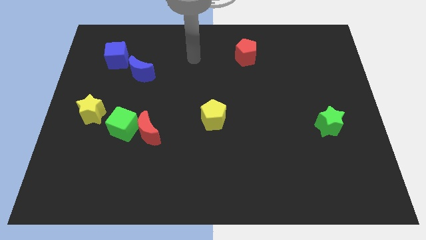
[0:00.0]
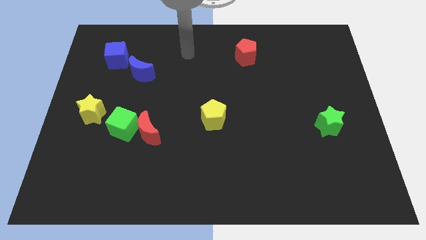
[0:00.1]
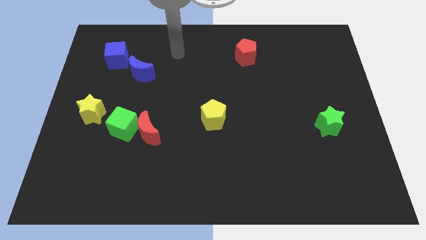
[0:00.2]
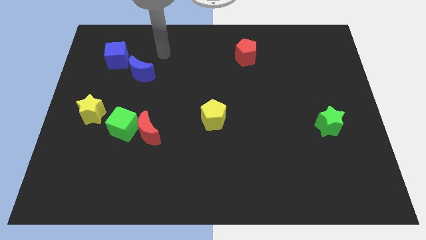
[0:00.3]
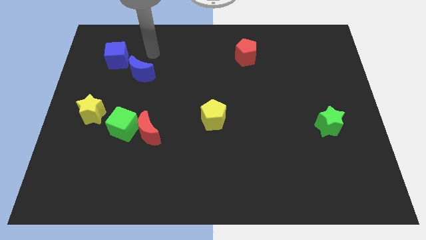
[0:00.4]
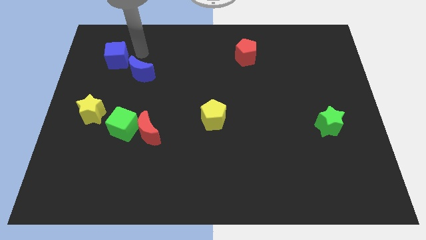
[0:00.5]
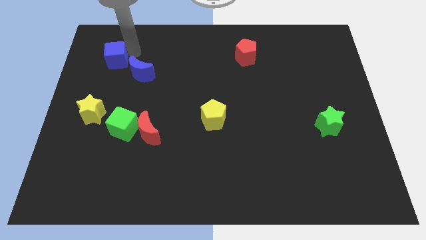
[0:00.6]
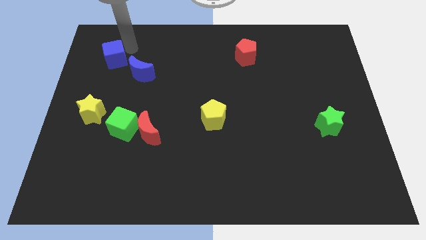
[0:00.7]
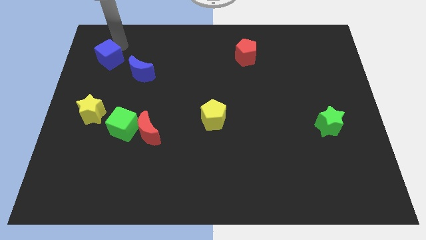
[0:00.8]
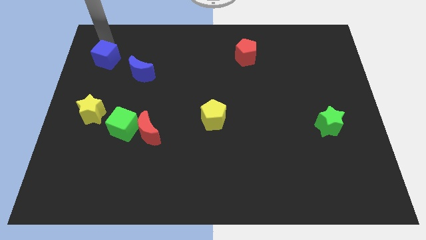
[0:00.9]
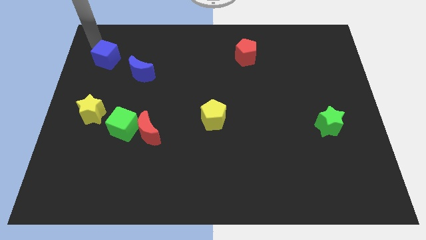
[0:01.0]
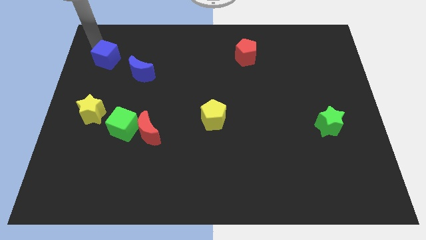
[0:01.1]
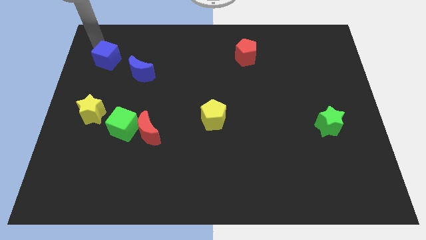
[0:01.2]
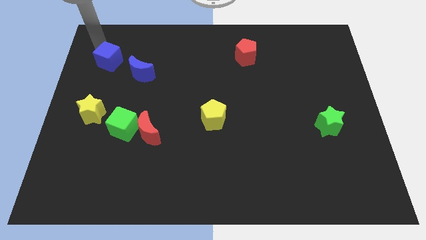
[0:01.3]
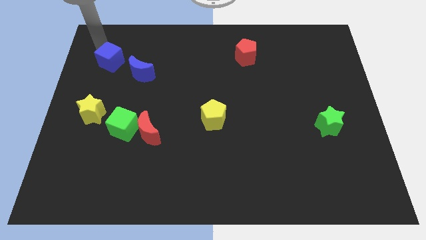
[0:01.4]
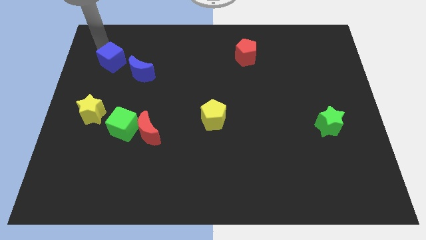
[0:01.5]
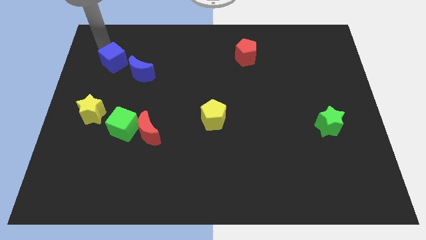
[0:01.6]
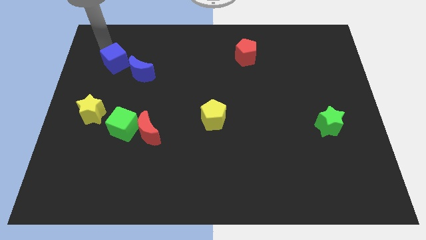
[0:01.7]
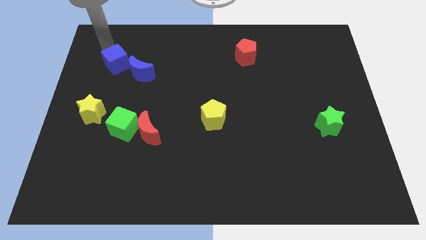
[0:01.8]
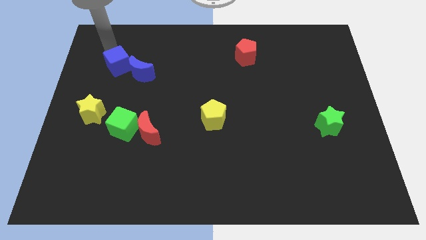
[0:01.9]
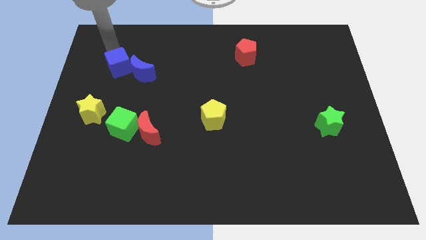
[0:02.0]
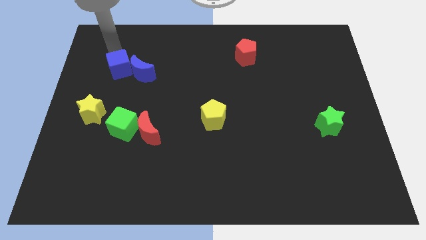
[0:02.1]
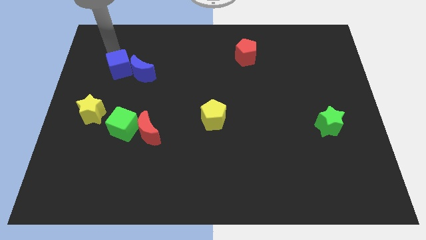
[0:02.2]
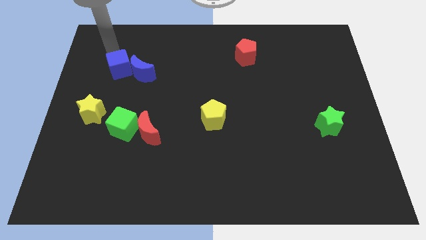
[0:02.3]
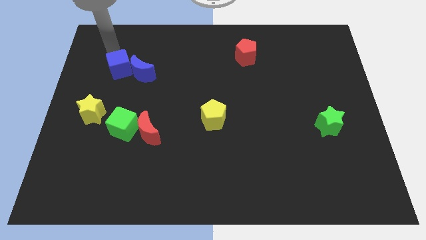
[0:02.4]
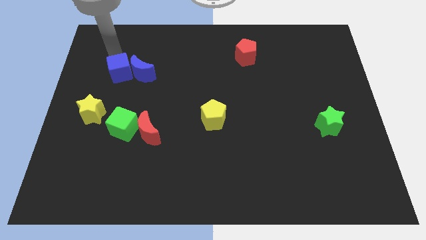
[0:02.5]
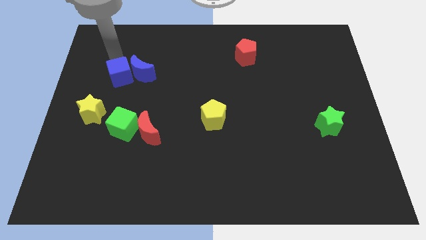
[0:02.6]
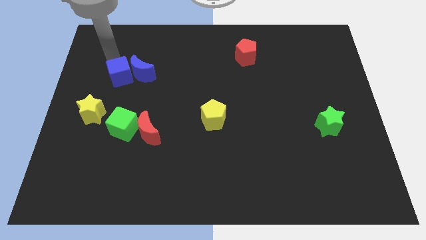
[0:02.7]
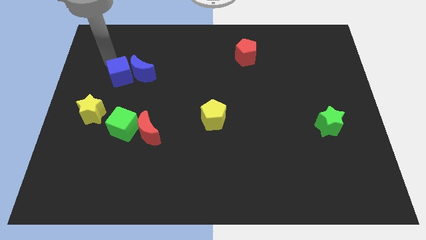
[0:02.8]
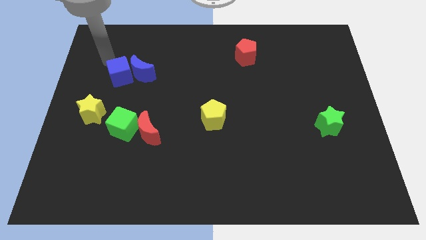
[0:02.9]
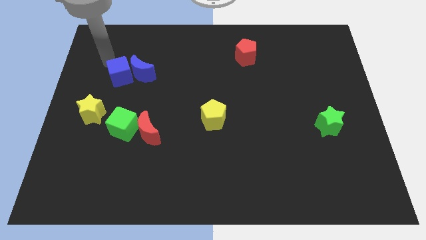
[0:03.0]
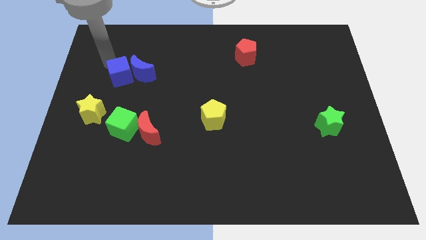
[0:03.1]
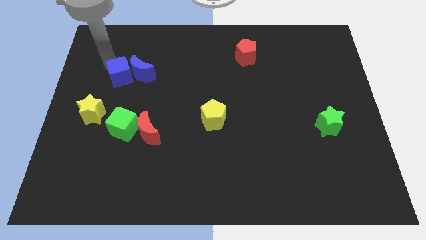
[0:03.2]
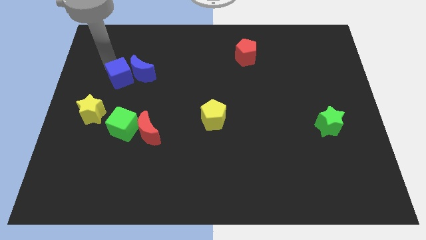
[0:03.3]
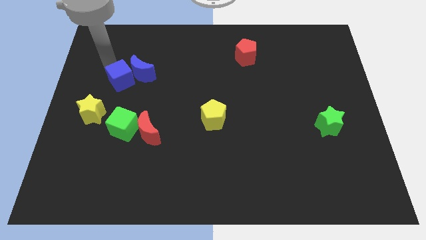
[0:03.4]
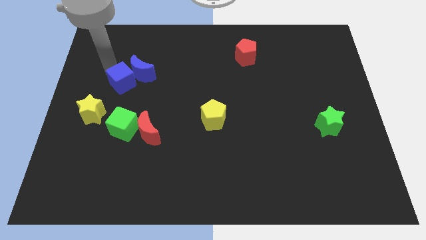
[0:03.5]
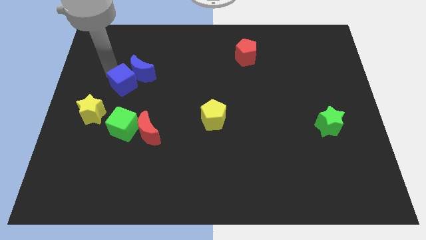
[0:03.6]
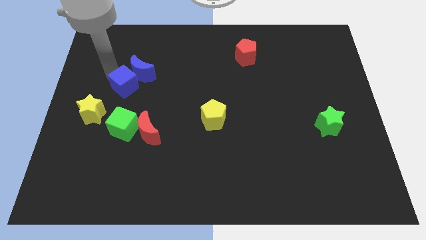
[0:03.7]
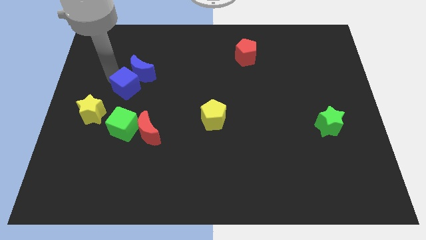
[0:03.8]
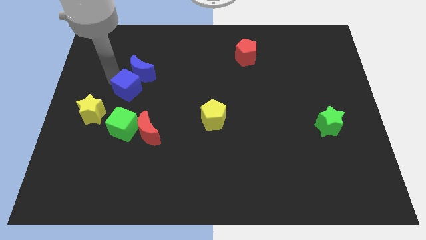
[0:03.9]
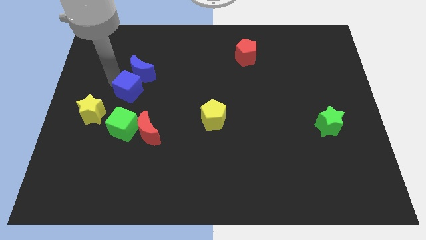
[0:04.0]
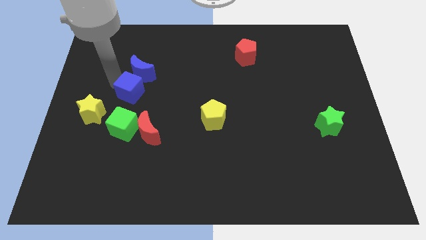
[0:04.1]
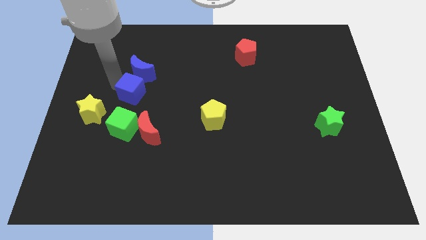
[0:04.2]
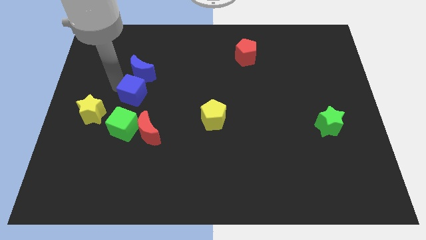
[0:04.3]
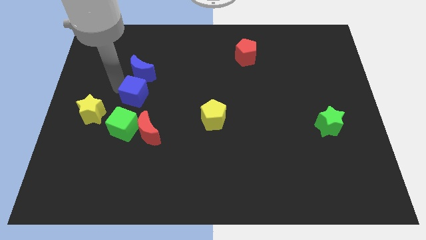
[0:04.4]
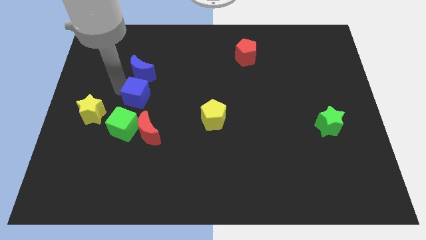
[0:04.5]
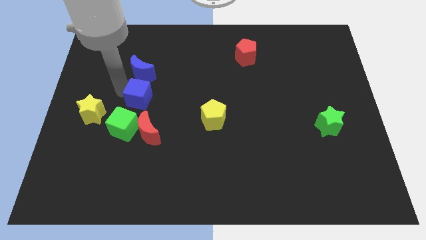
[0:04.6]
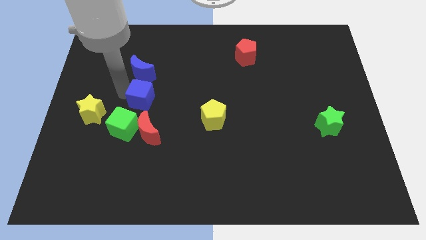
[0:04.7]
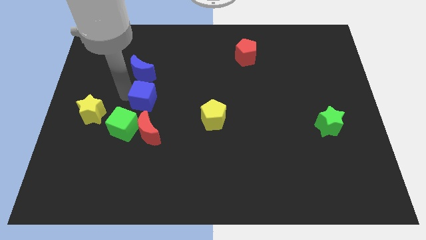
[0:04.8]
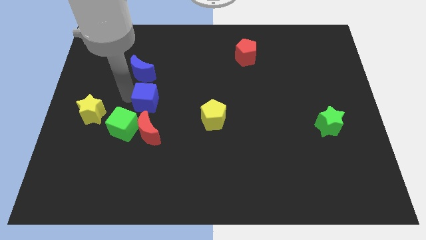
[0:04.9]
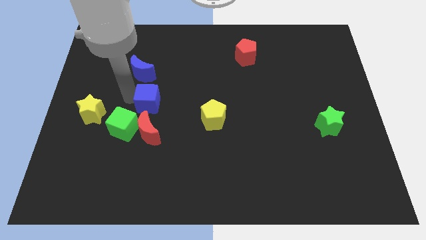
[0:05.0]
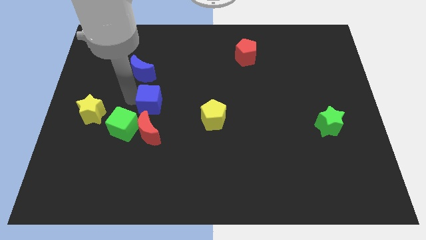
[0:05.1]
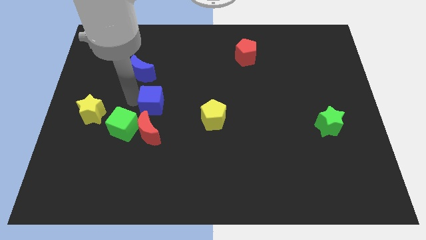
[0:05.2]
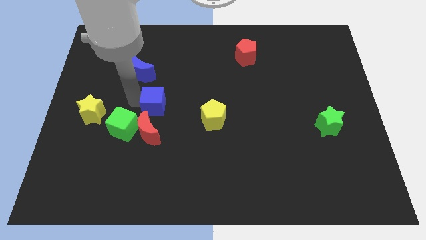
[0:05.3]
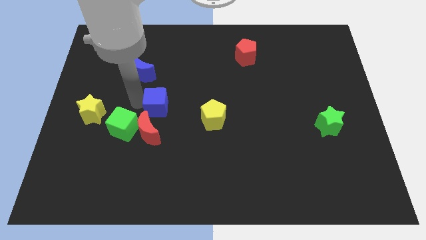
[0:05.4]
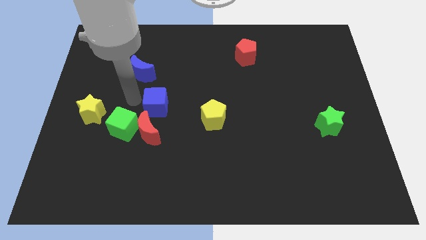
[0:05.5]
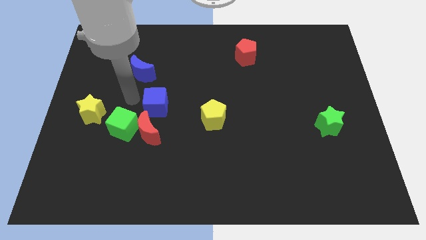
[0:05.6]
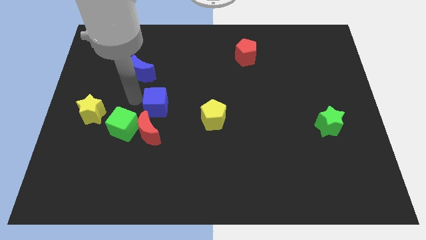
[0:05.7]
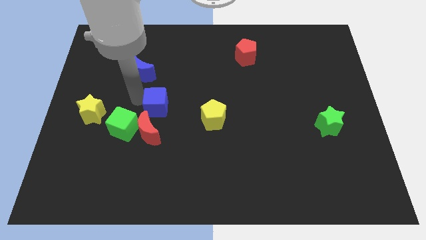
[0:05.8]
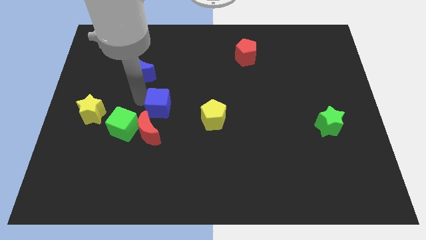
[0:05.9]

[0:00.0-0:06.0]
slide the blue cube downwards and then to the right

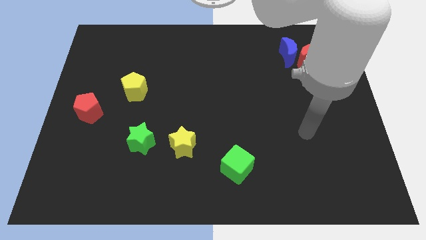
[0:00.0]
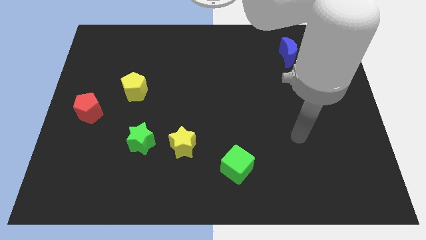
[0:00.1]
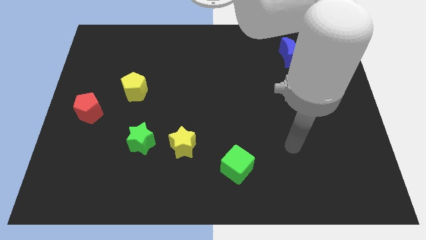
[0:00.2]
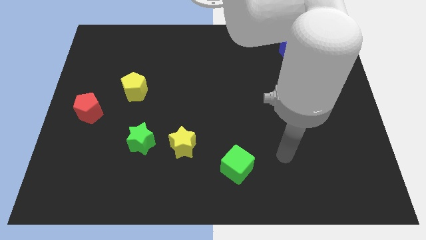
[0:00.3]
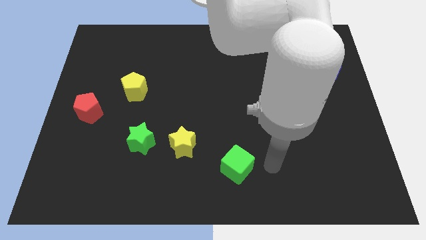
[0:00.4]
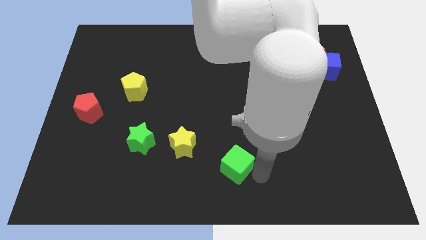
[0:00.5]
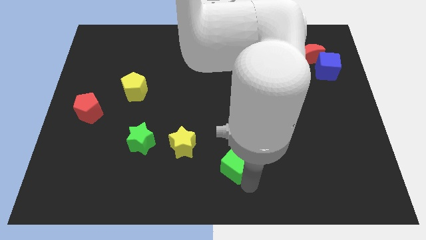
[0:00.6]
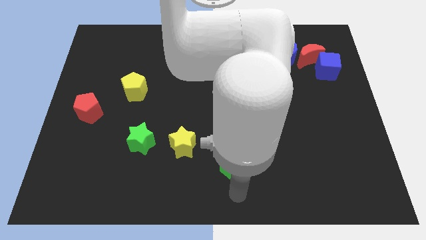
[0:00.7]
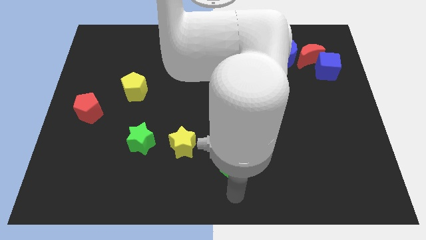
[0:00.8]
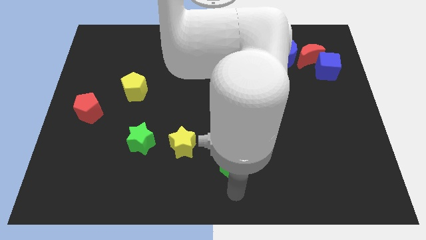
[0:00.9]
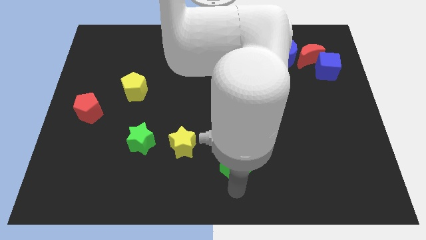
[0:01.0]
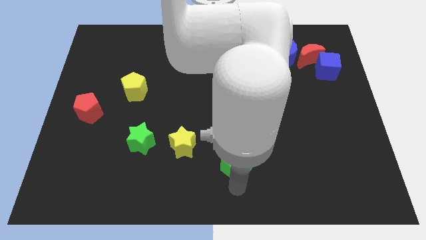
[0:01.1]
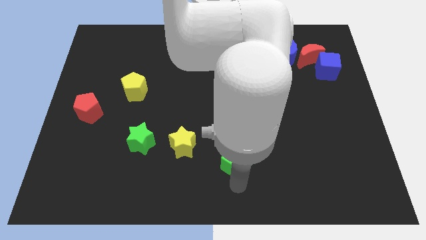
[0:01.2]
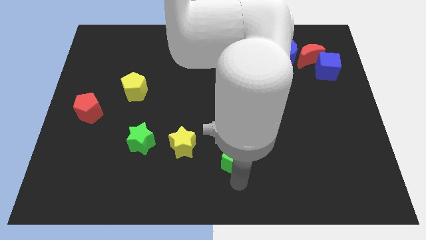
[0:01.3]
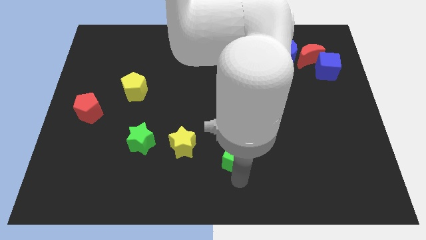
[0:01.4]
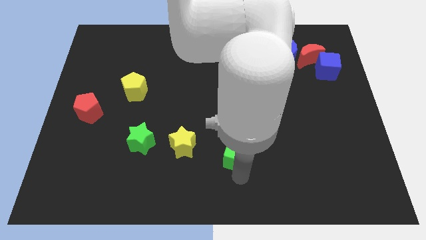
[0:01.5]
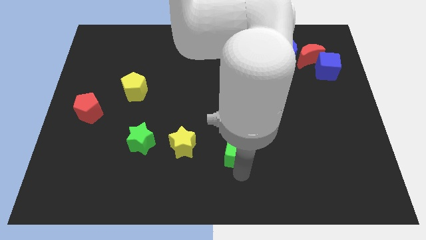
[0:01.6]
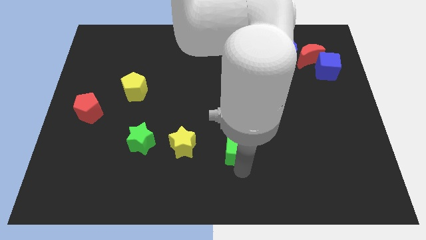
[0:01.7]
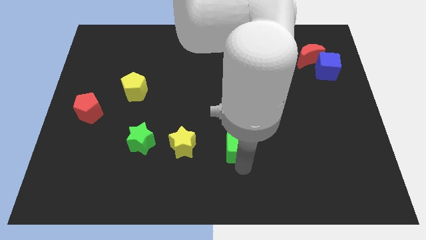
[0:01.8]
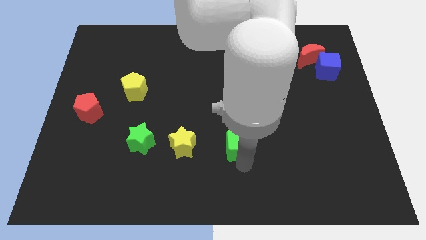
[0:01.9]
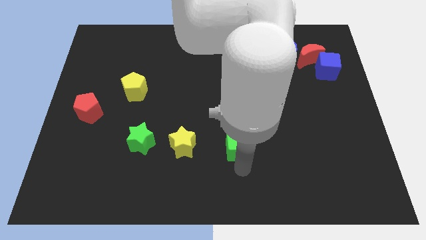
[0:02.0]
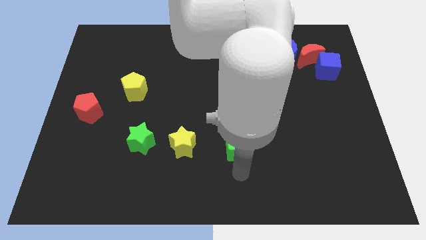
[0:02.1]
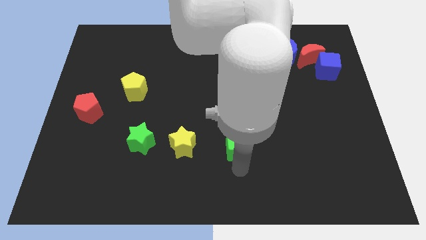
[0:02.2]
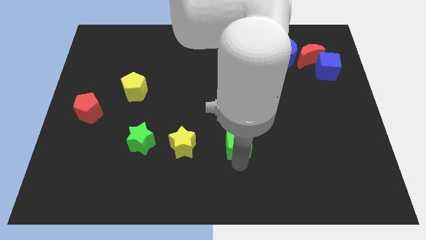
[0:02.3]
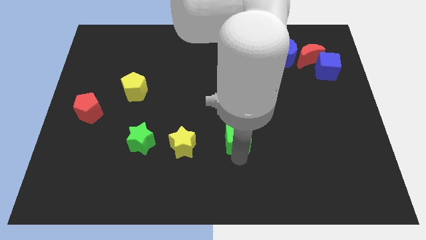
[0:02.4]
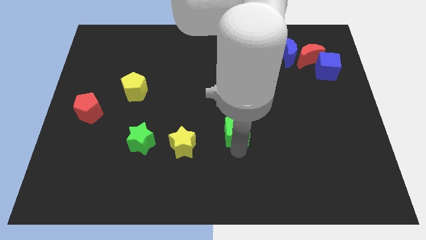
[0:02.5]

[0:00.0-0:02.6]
slightly move the green cube up
